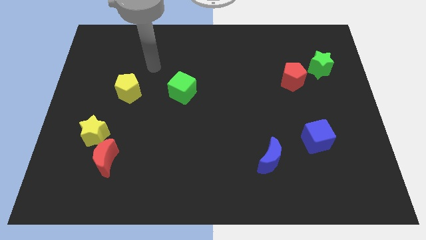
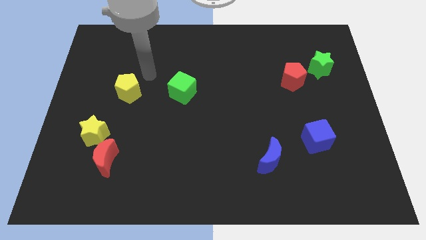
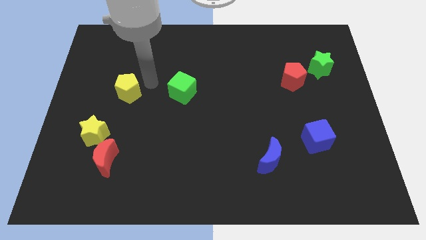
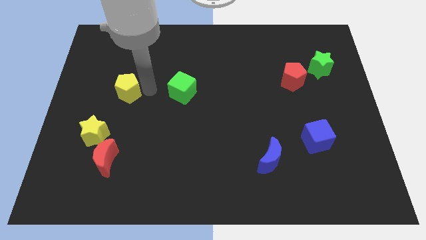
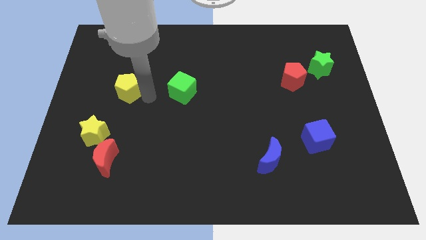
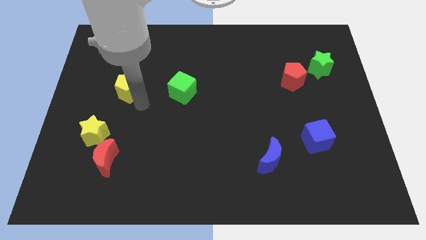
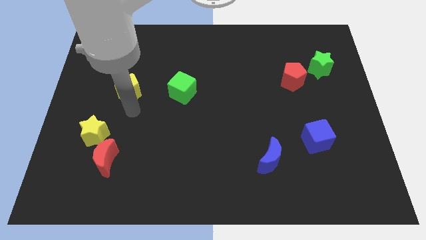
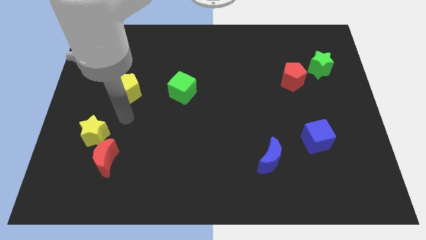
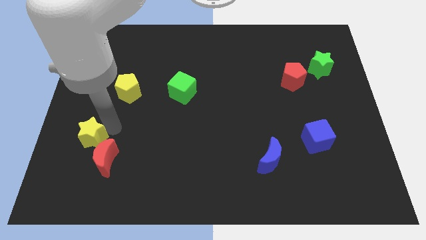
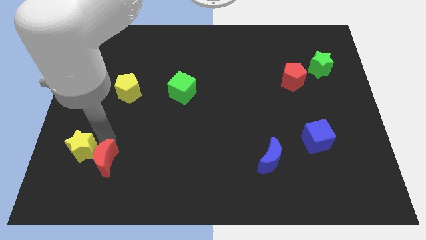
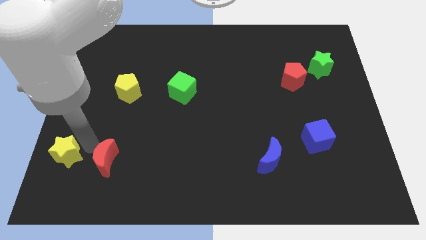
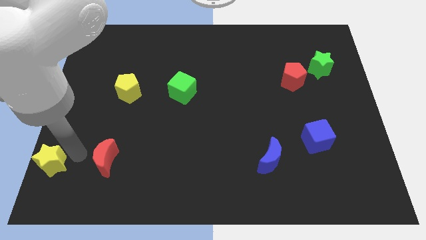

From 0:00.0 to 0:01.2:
move the red moon away from the yellow star

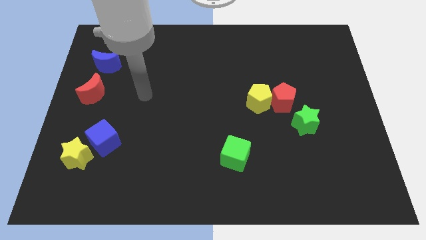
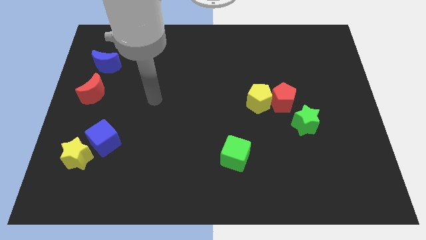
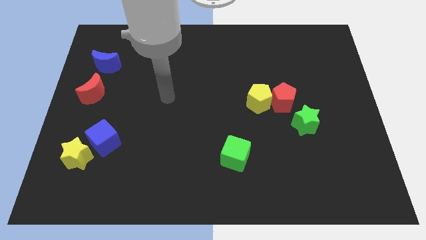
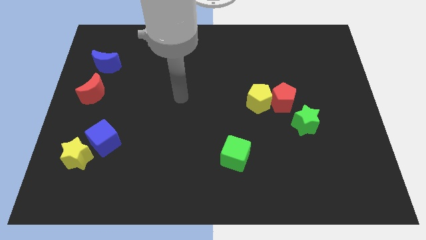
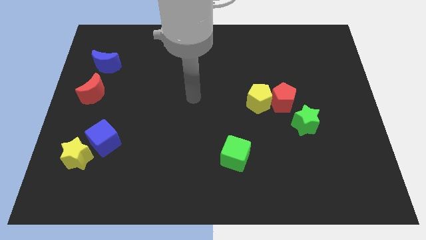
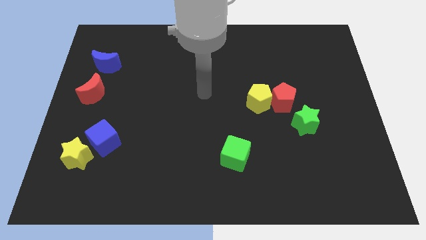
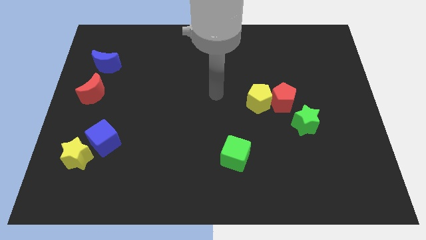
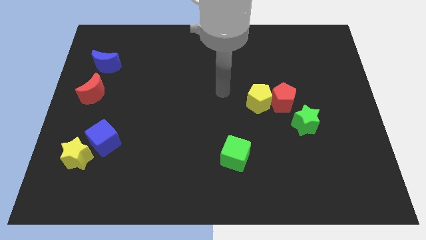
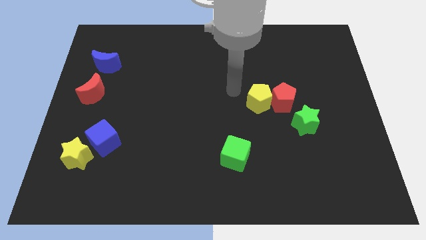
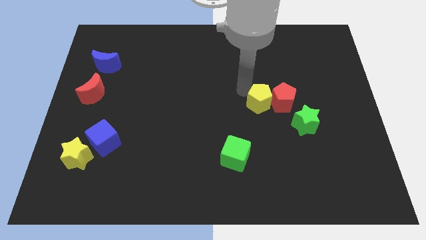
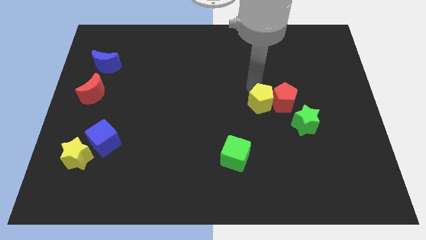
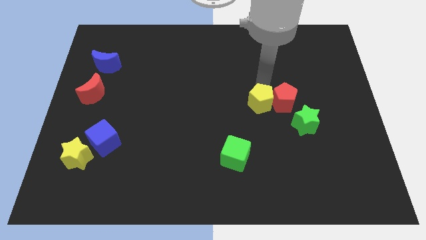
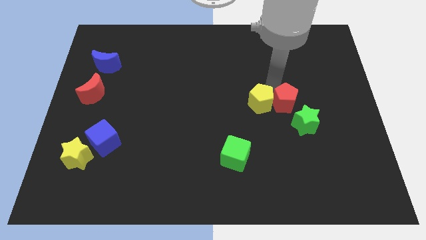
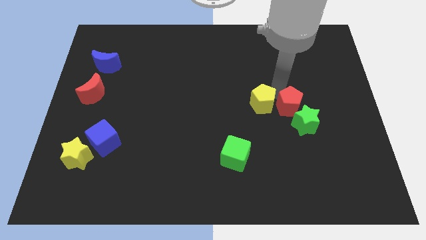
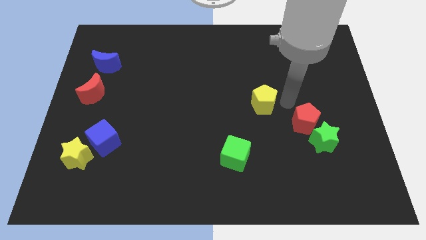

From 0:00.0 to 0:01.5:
pull the yellow pentagon apart from the red pentagon

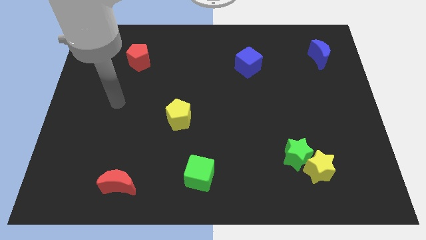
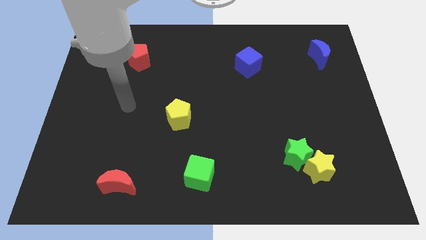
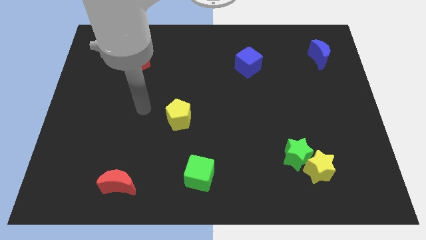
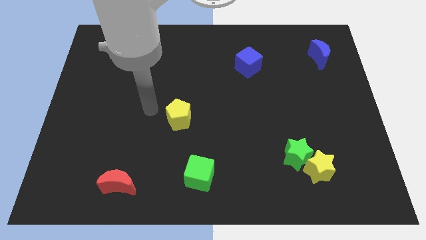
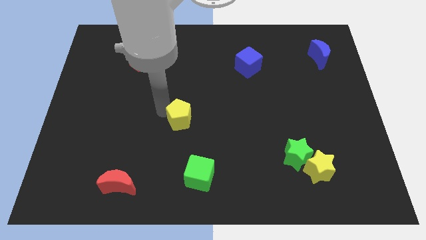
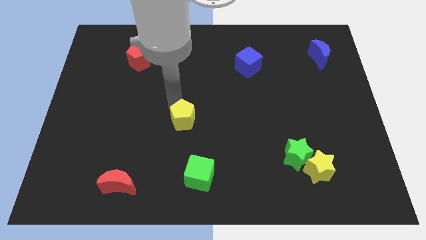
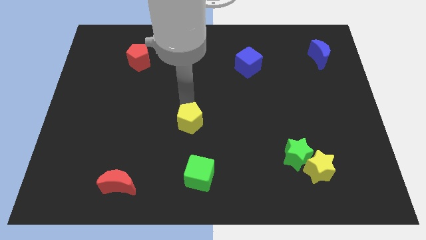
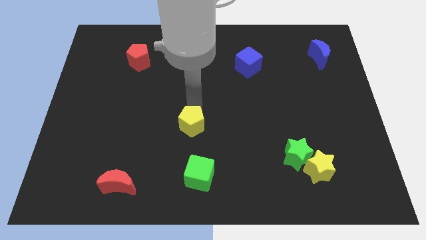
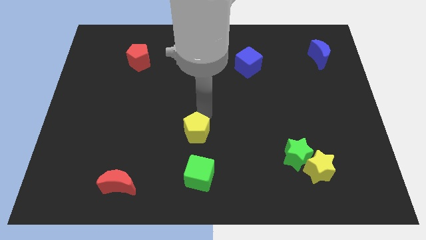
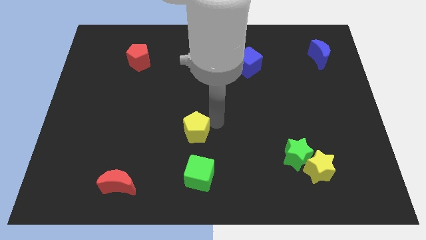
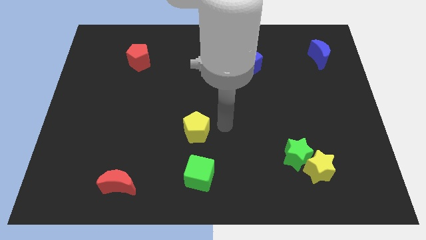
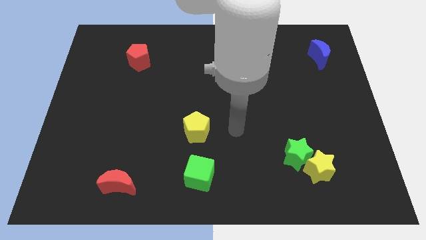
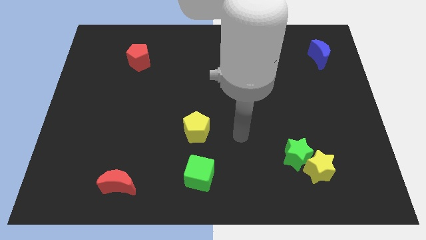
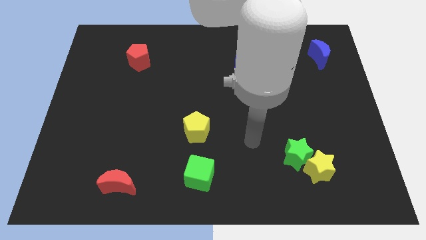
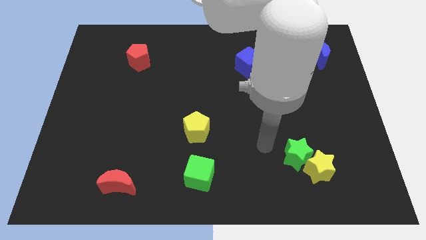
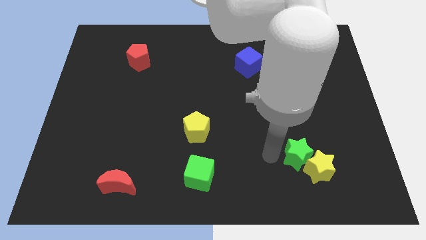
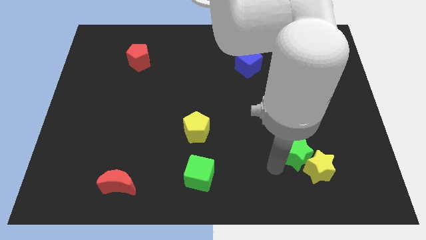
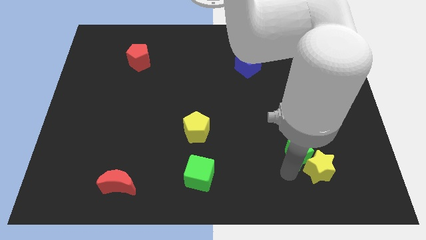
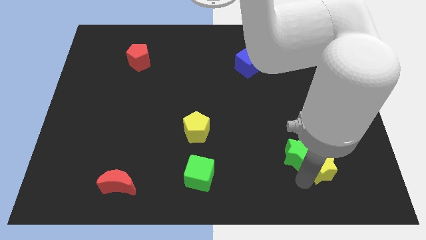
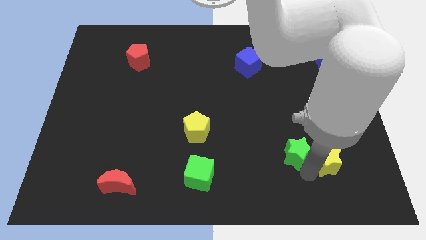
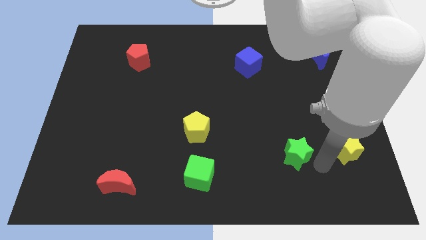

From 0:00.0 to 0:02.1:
separate the green star from the yellow star

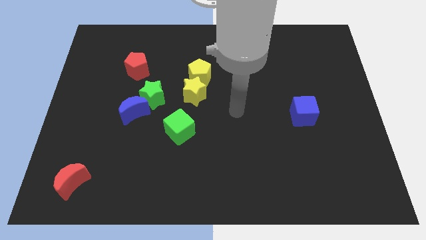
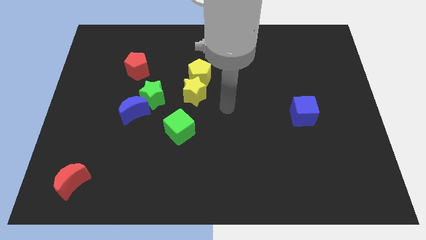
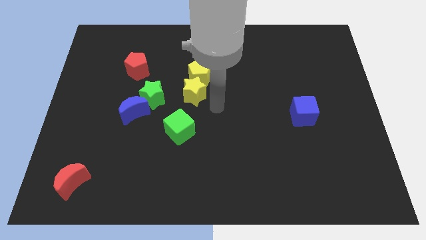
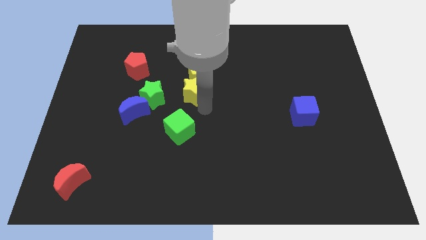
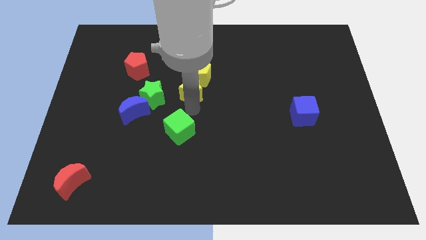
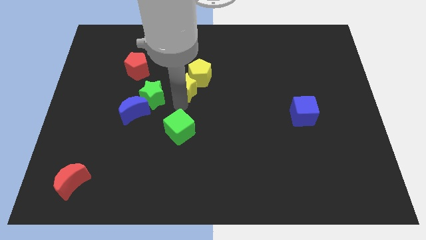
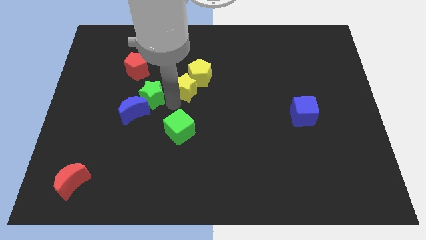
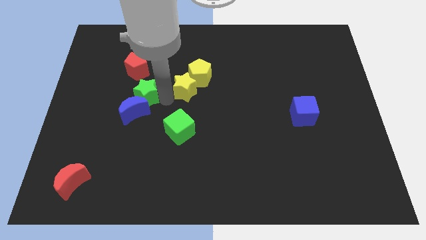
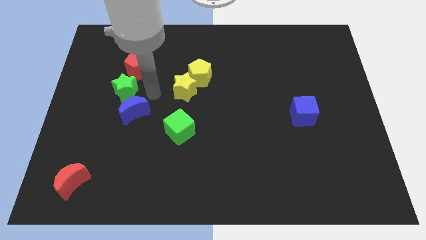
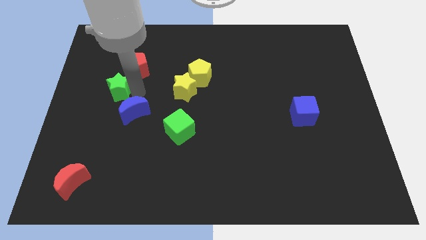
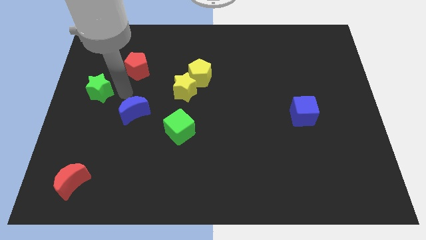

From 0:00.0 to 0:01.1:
move the blue moon away from the green star

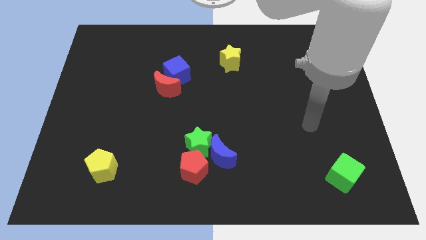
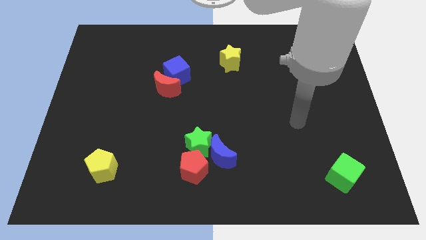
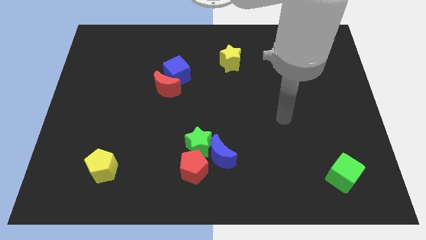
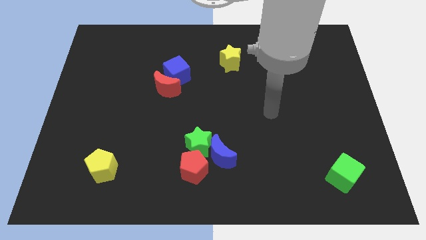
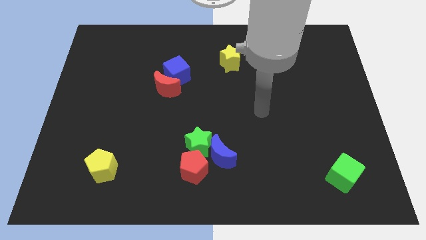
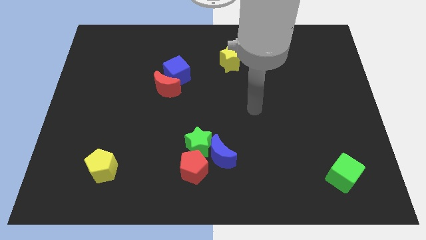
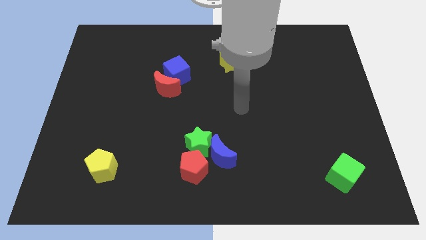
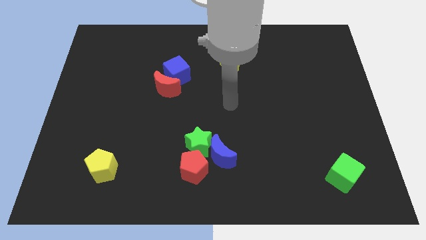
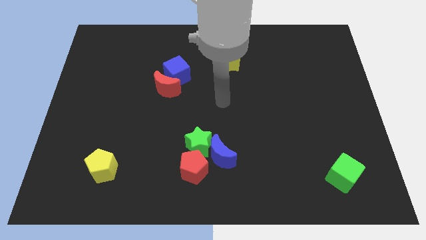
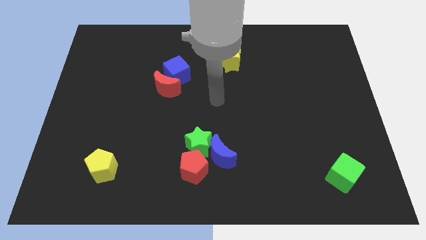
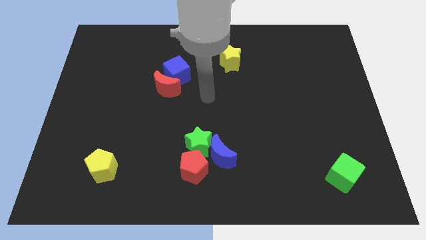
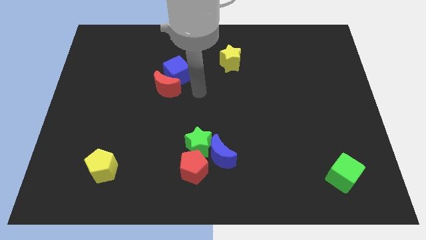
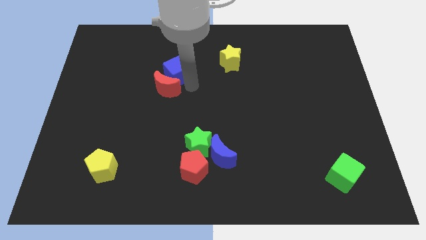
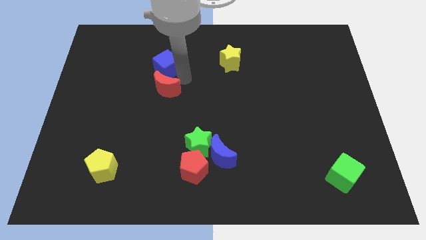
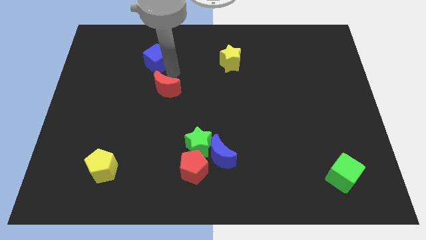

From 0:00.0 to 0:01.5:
pull the red moon apart from the blue cube

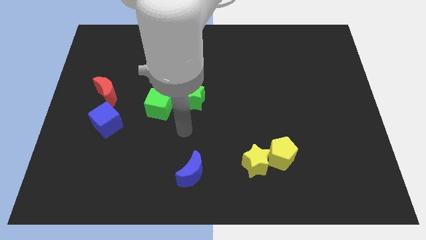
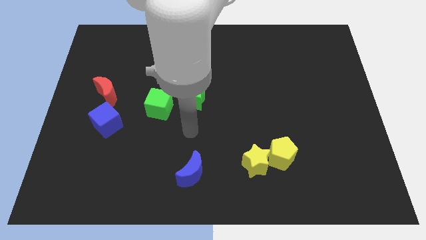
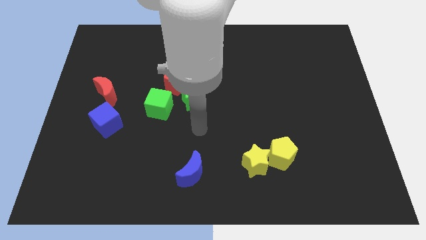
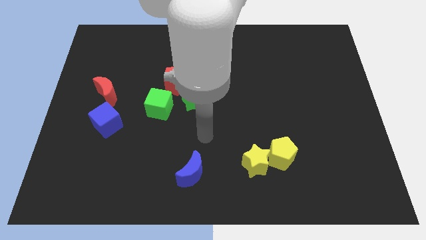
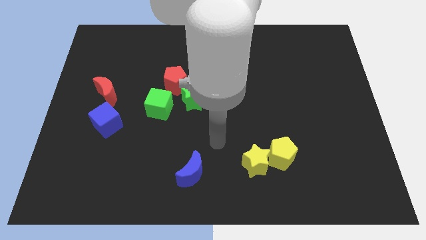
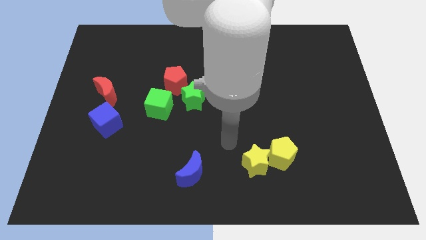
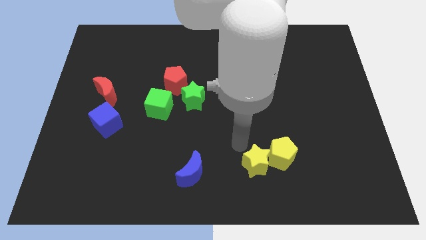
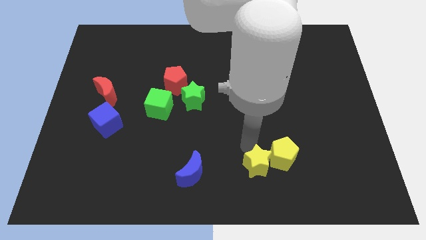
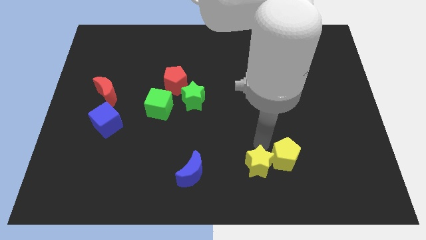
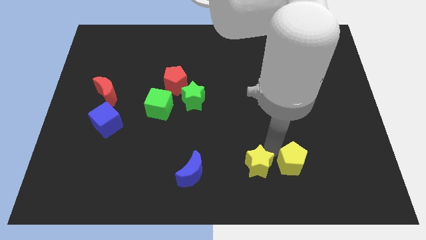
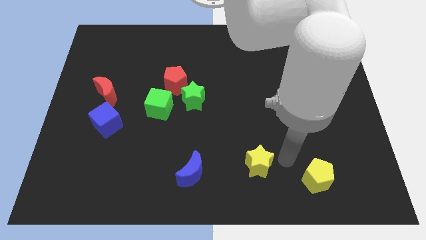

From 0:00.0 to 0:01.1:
move the yellow star away from the yellow pentagon

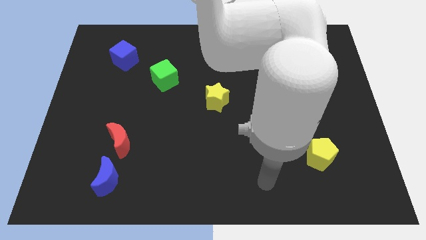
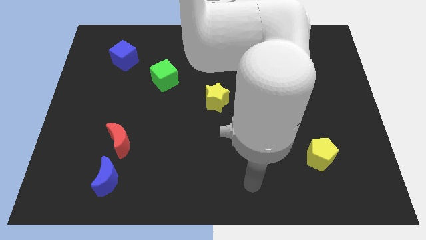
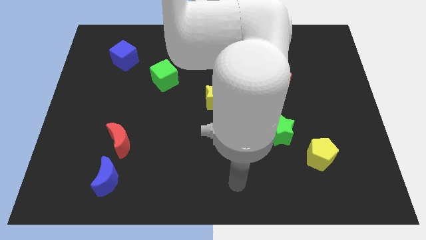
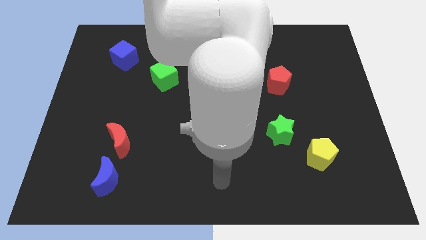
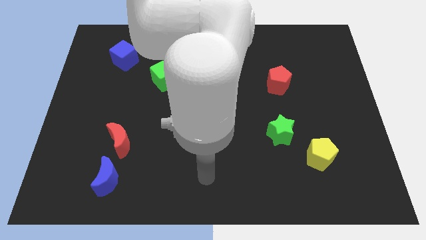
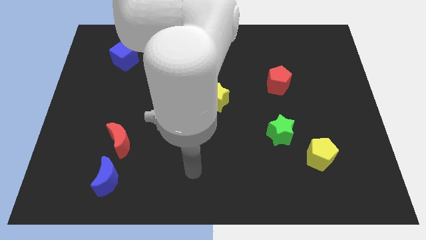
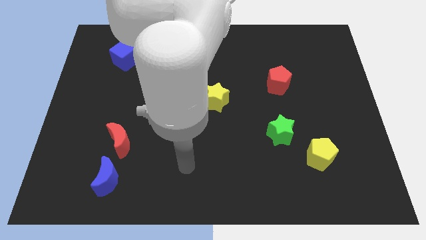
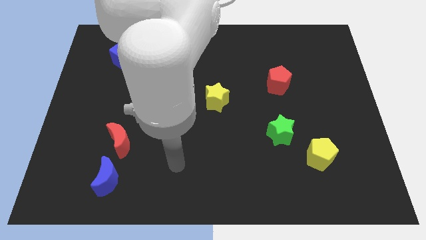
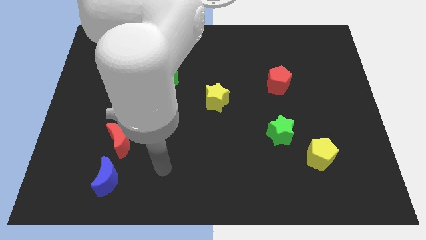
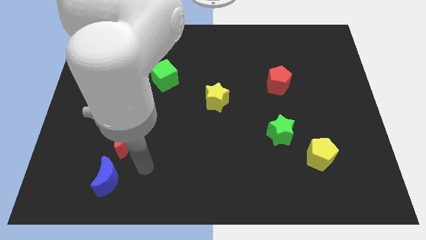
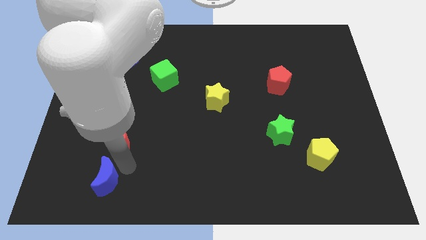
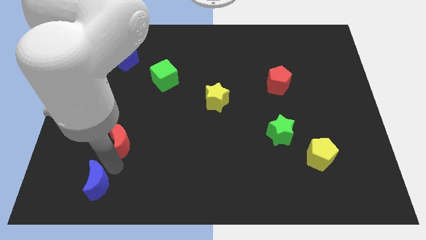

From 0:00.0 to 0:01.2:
separate the red moon from the blue moon
